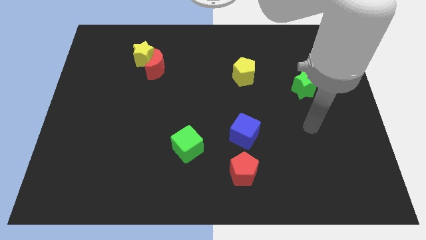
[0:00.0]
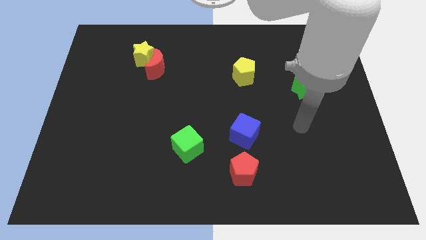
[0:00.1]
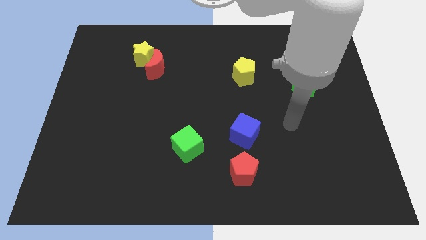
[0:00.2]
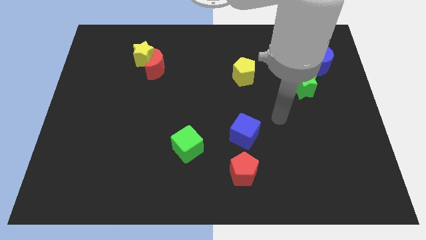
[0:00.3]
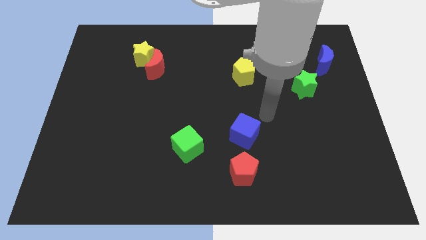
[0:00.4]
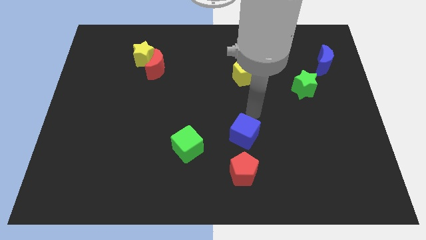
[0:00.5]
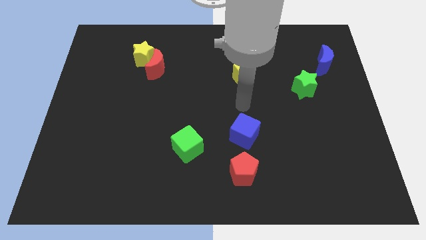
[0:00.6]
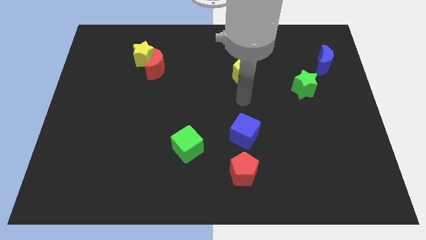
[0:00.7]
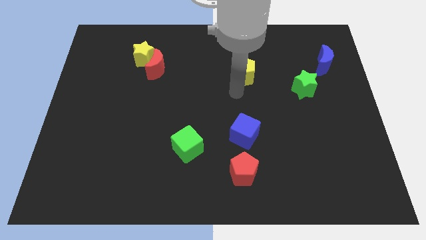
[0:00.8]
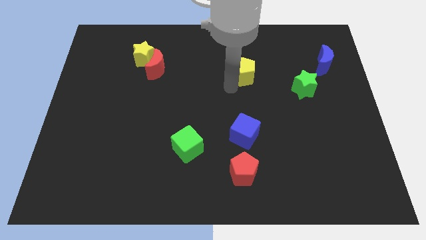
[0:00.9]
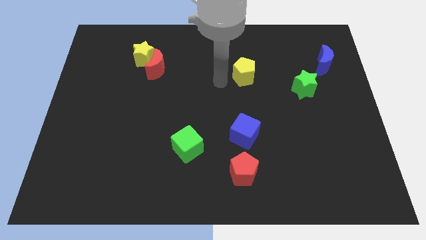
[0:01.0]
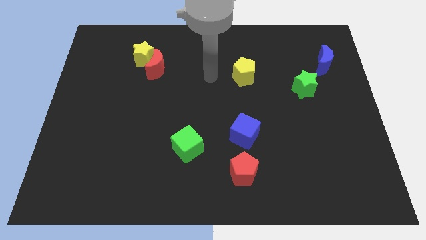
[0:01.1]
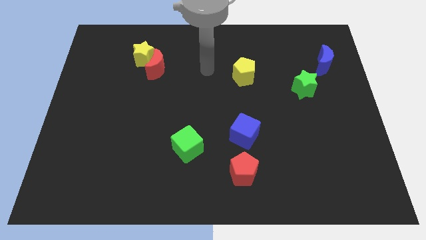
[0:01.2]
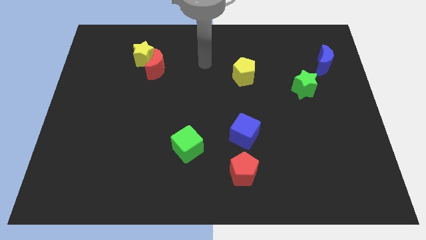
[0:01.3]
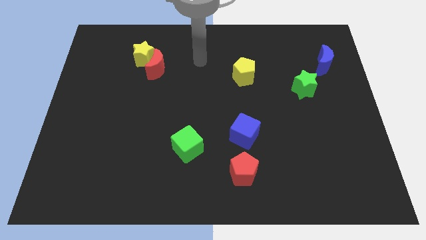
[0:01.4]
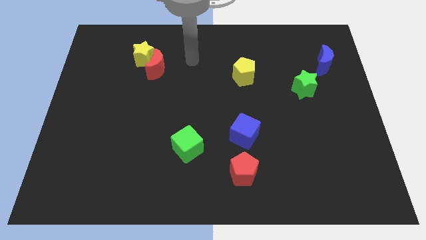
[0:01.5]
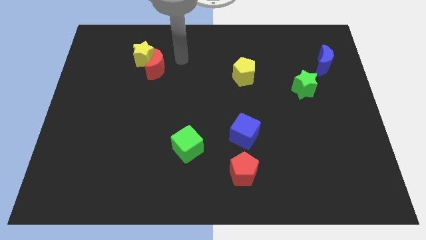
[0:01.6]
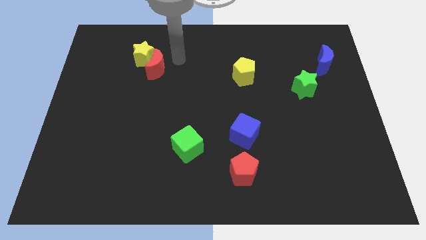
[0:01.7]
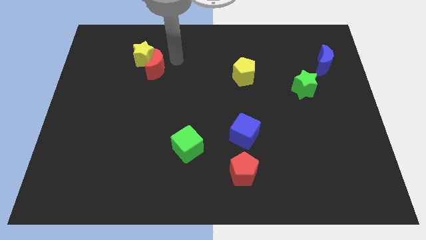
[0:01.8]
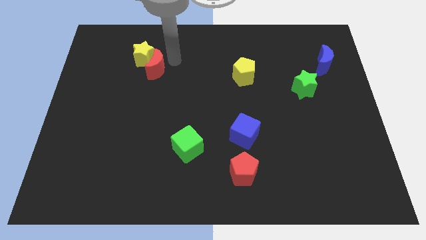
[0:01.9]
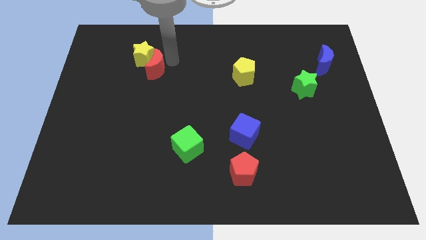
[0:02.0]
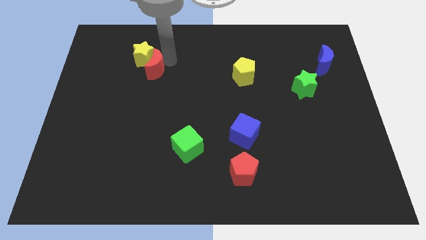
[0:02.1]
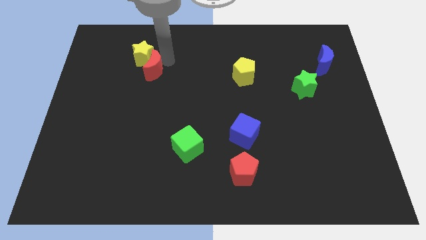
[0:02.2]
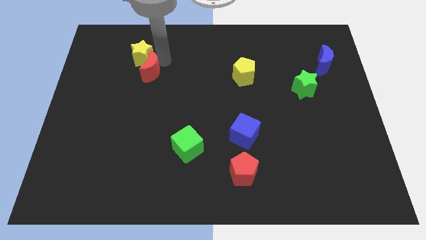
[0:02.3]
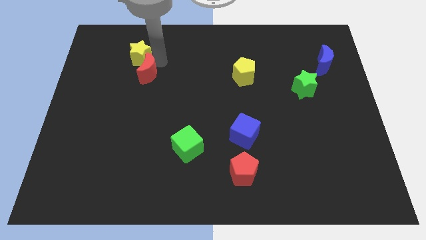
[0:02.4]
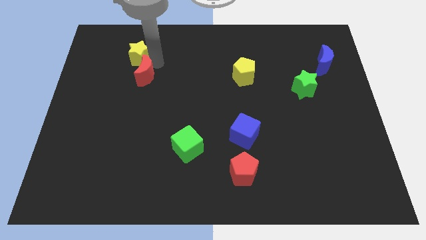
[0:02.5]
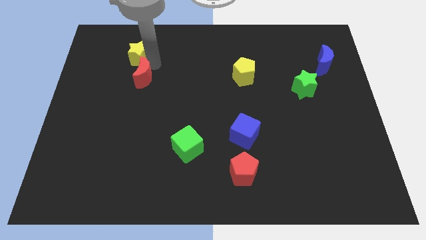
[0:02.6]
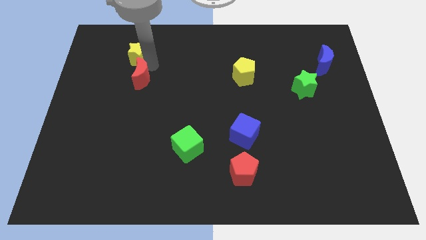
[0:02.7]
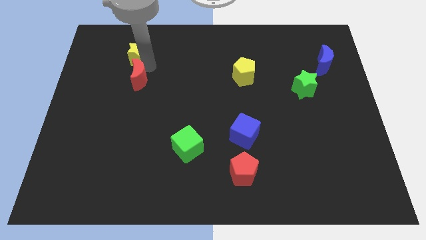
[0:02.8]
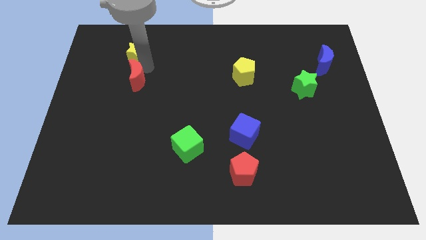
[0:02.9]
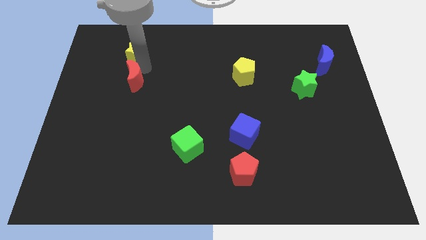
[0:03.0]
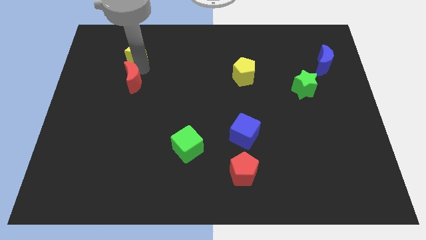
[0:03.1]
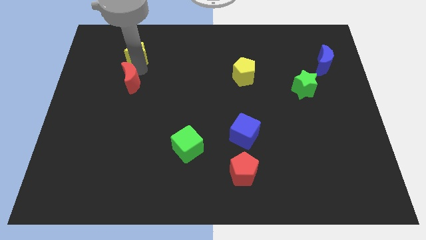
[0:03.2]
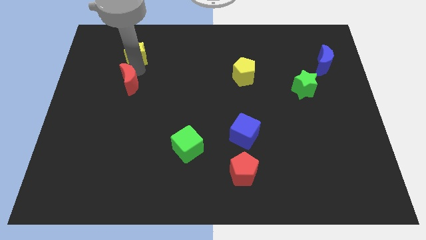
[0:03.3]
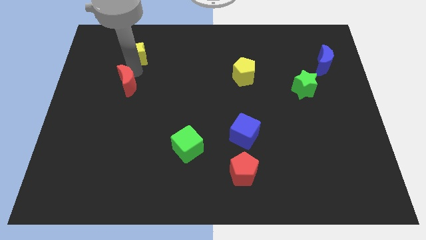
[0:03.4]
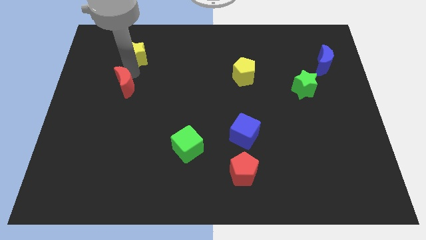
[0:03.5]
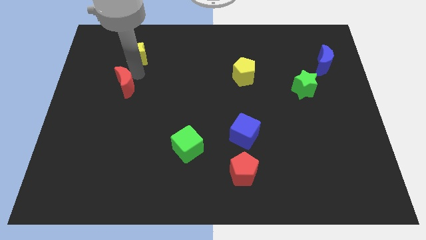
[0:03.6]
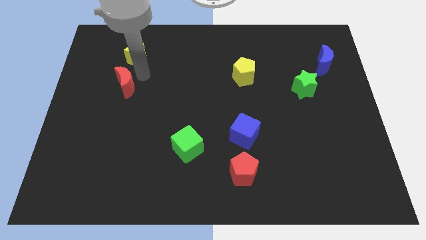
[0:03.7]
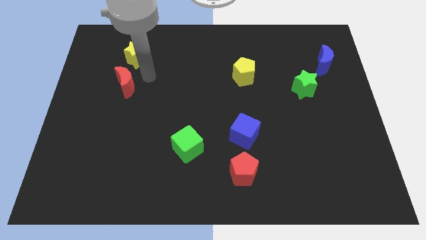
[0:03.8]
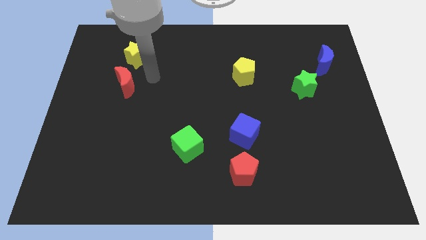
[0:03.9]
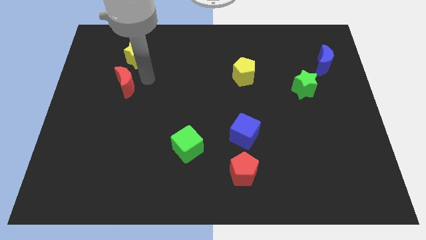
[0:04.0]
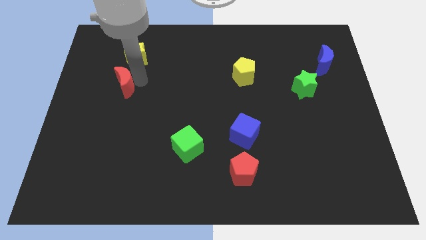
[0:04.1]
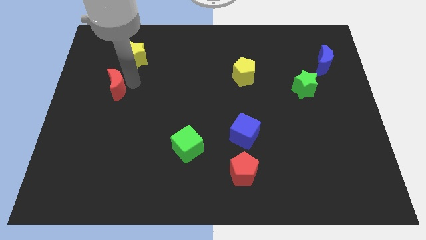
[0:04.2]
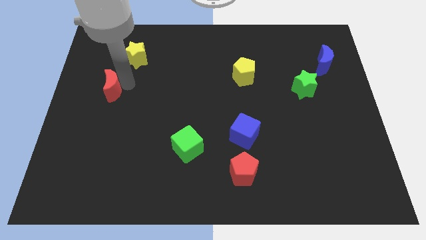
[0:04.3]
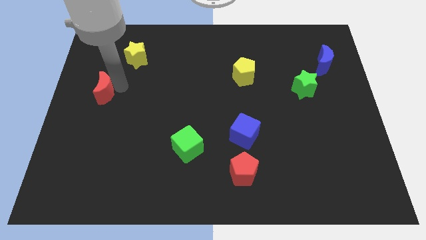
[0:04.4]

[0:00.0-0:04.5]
slide the red moon to the center left

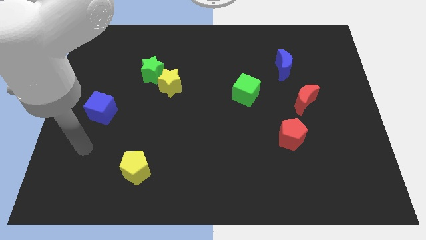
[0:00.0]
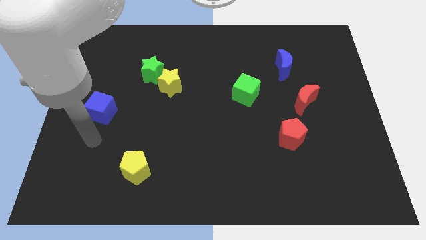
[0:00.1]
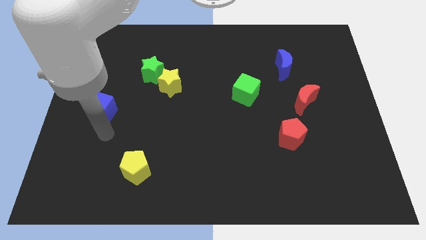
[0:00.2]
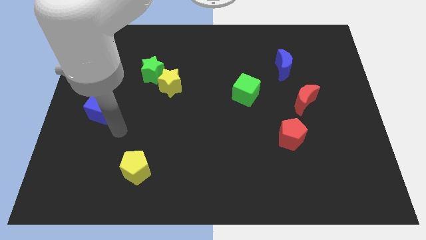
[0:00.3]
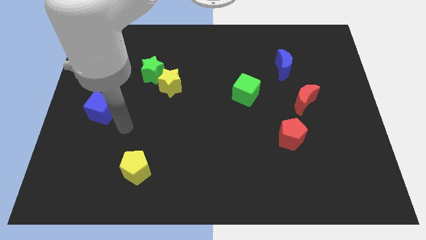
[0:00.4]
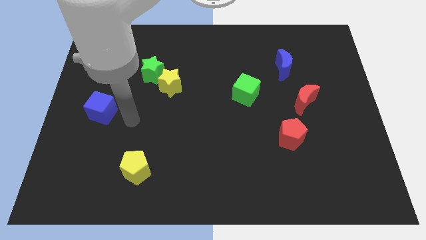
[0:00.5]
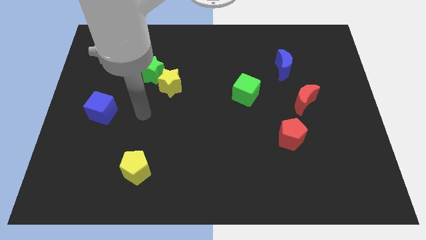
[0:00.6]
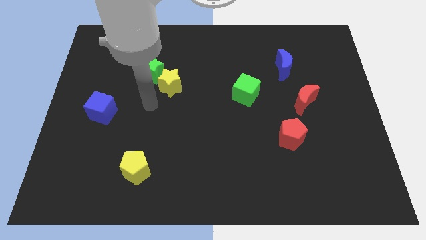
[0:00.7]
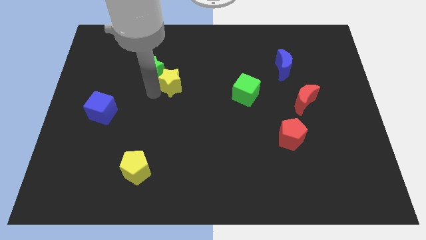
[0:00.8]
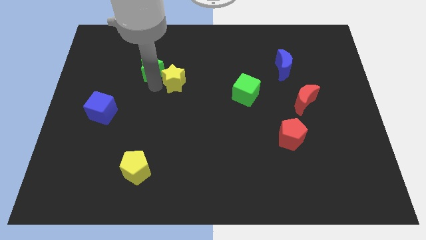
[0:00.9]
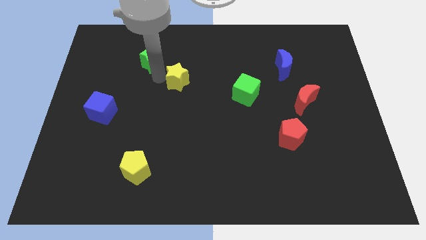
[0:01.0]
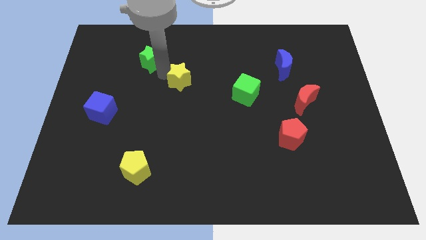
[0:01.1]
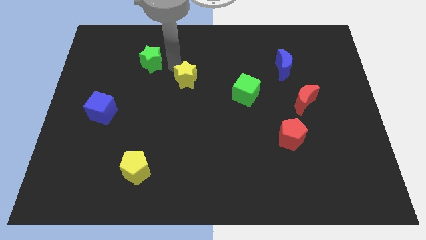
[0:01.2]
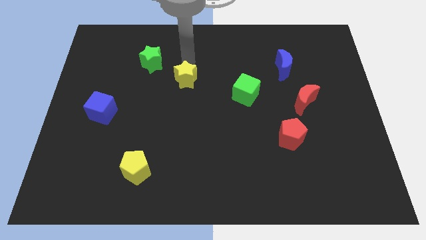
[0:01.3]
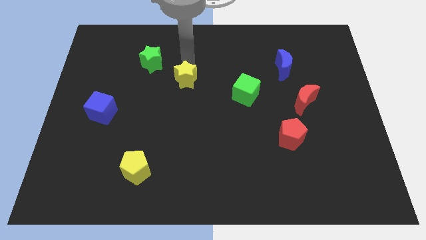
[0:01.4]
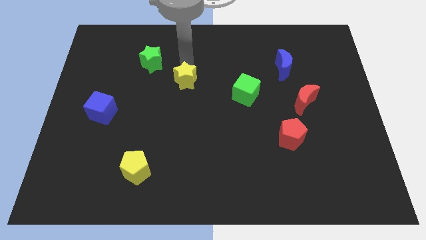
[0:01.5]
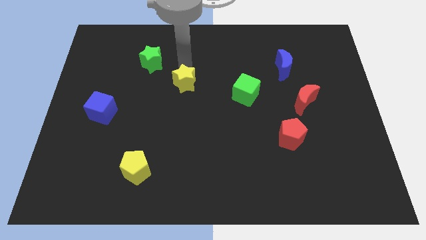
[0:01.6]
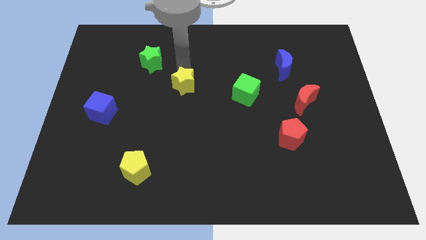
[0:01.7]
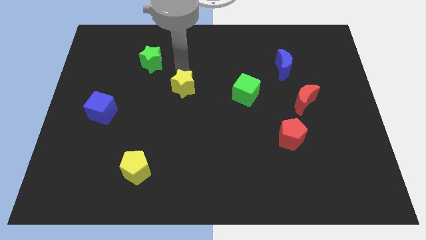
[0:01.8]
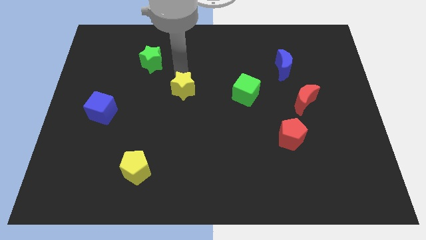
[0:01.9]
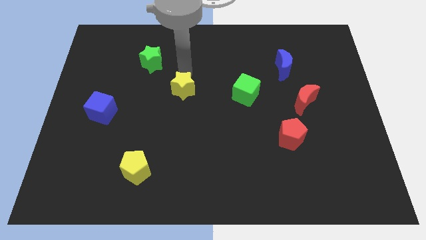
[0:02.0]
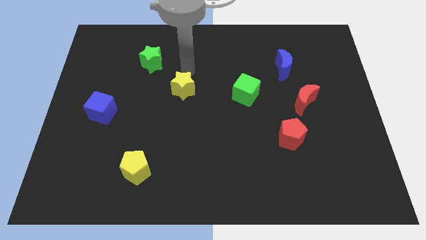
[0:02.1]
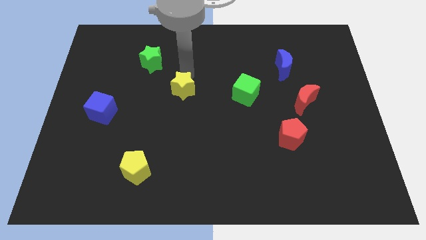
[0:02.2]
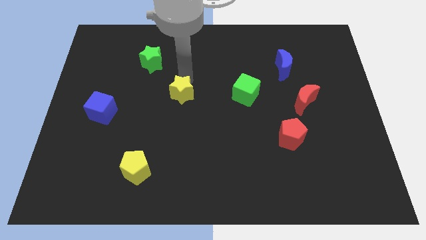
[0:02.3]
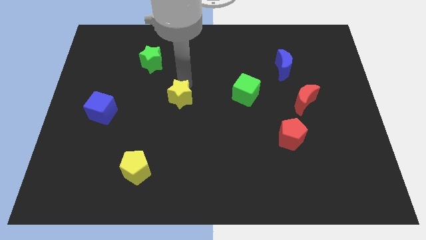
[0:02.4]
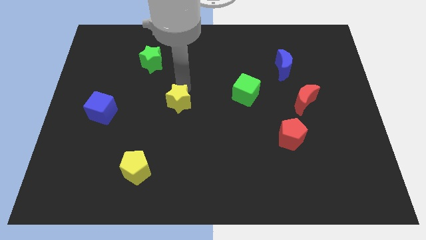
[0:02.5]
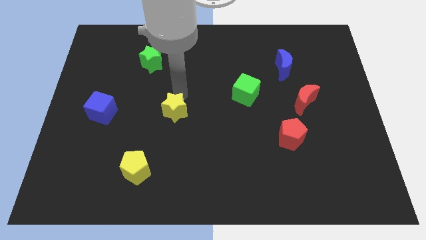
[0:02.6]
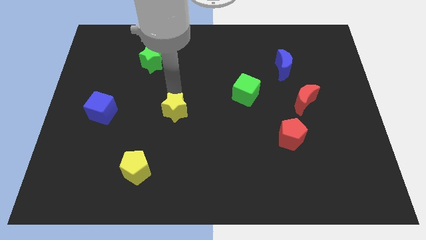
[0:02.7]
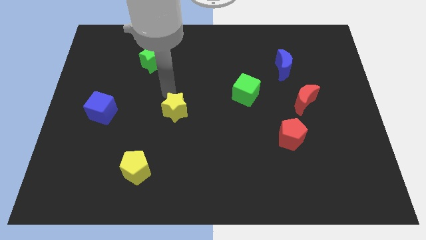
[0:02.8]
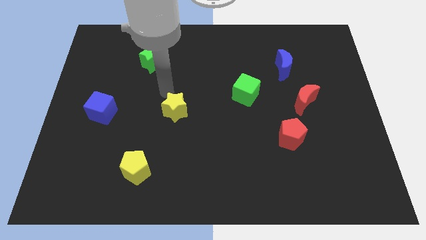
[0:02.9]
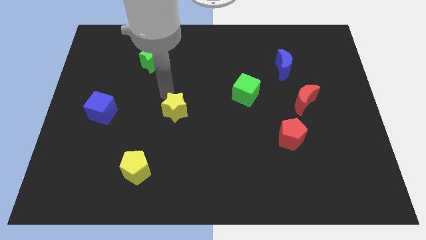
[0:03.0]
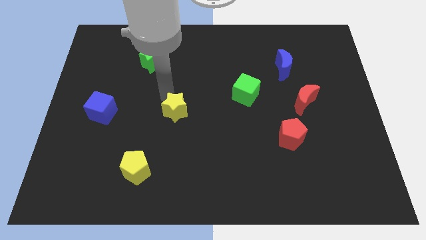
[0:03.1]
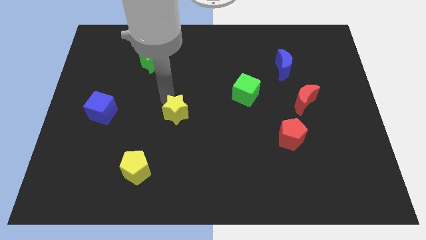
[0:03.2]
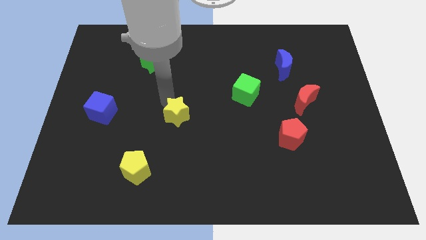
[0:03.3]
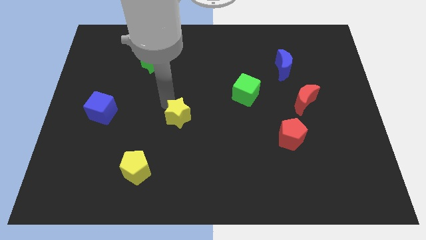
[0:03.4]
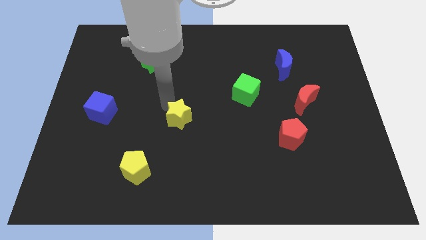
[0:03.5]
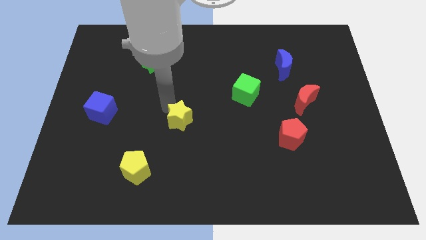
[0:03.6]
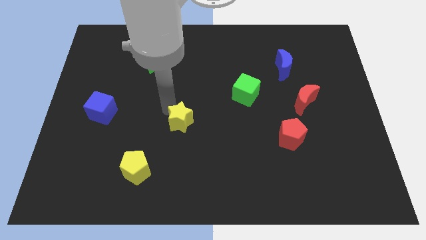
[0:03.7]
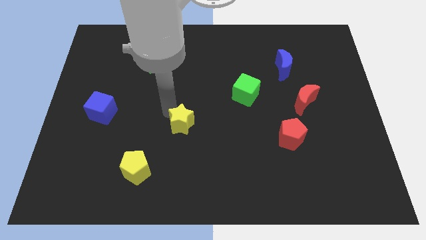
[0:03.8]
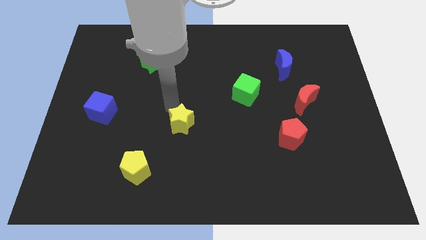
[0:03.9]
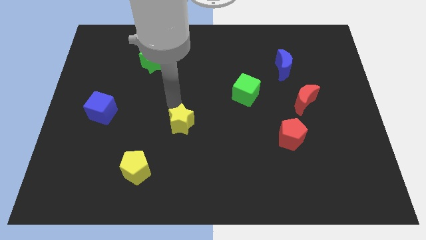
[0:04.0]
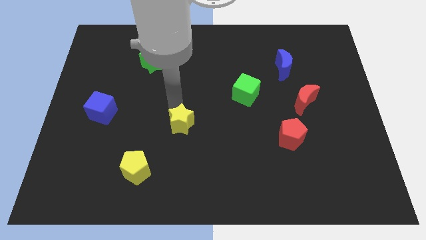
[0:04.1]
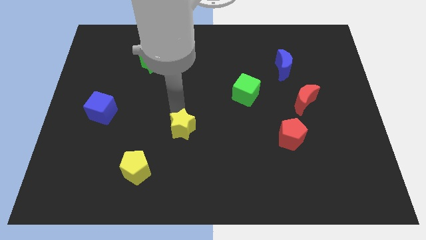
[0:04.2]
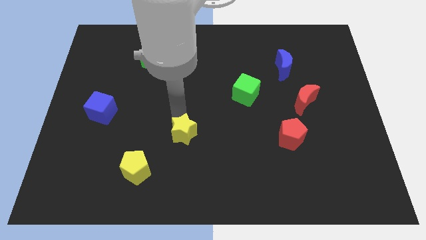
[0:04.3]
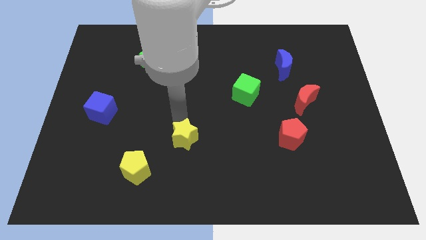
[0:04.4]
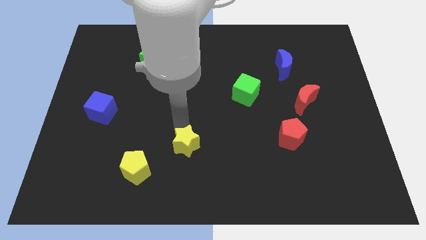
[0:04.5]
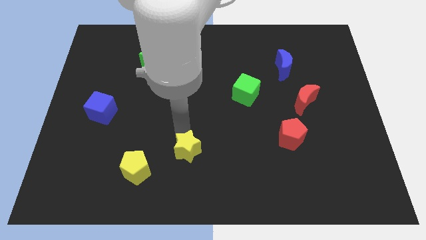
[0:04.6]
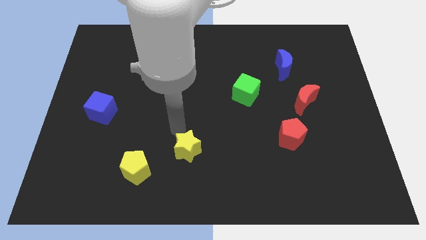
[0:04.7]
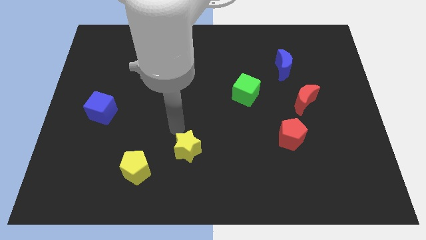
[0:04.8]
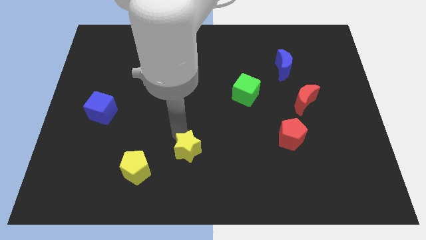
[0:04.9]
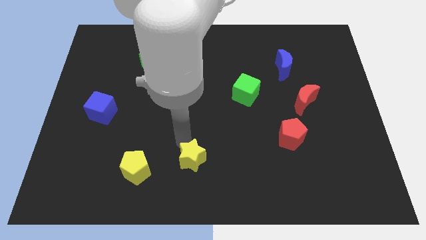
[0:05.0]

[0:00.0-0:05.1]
move the yellow star to the bottom side
